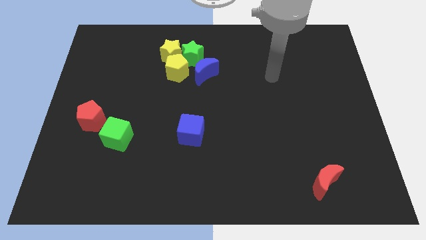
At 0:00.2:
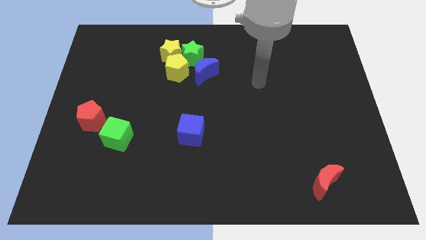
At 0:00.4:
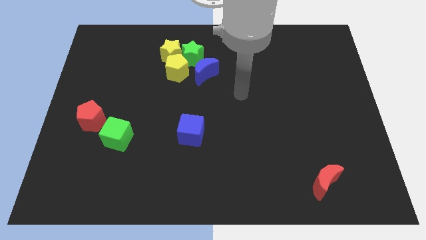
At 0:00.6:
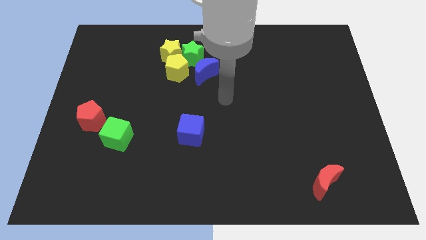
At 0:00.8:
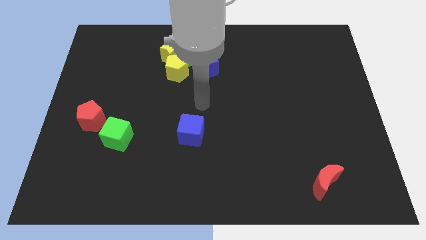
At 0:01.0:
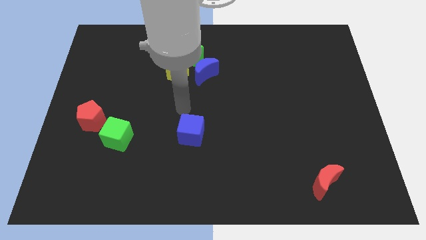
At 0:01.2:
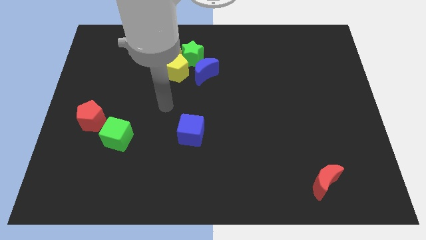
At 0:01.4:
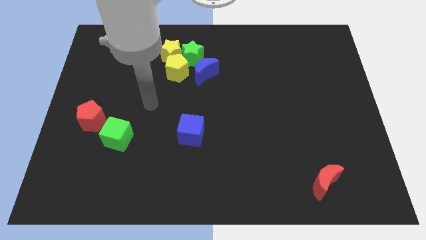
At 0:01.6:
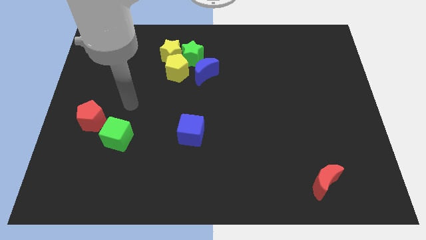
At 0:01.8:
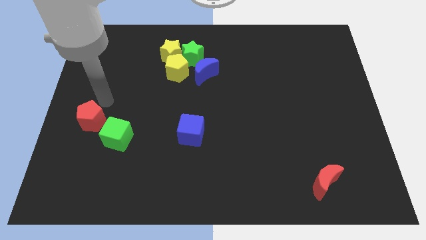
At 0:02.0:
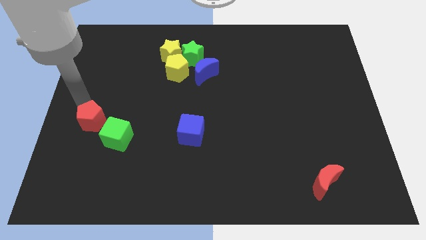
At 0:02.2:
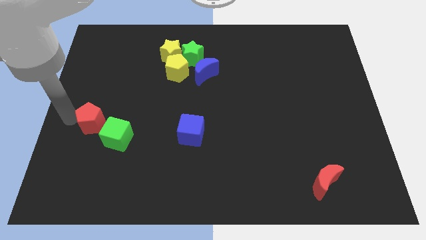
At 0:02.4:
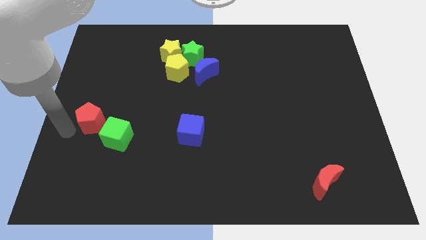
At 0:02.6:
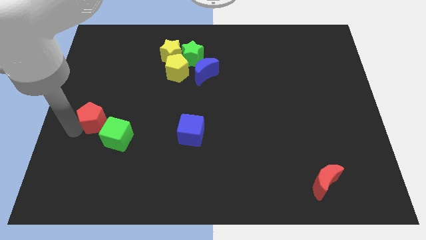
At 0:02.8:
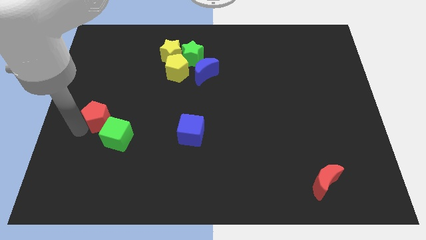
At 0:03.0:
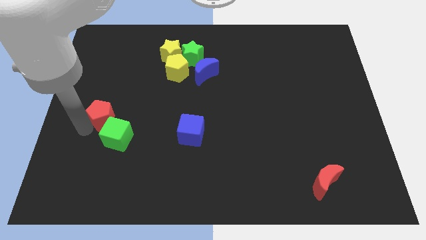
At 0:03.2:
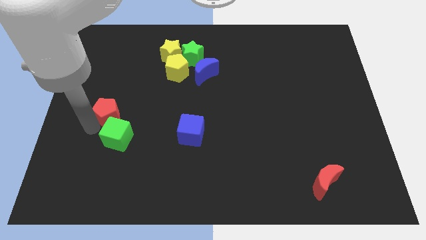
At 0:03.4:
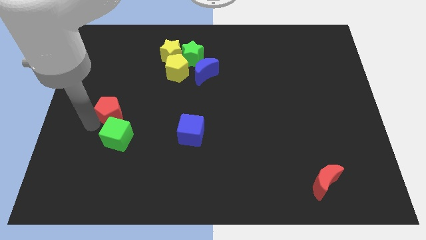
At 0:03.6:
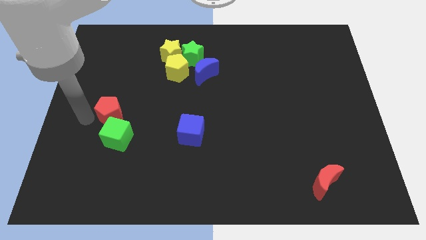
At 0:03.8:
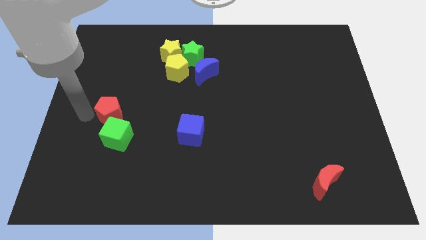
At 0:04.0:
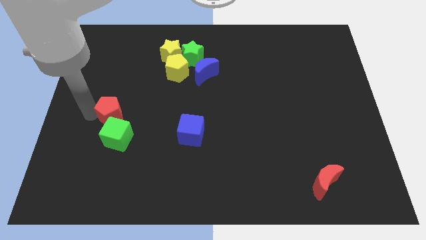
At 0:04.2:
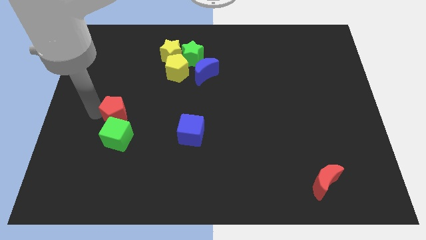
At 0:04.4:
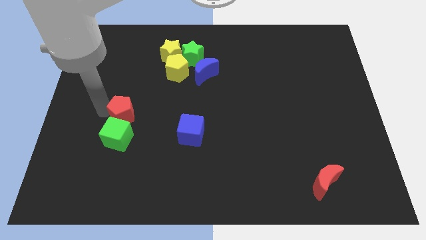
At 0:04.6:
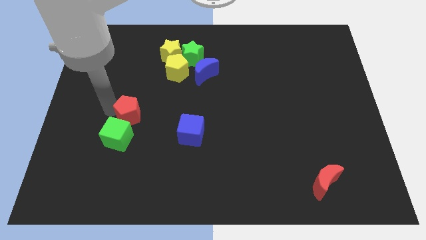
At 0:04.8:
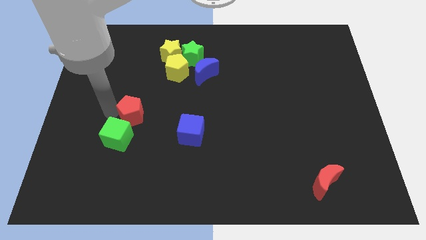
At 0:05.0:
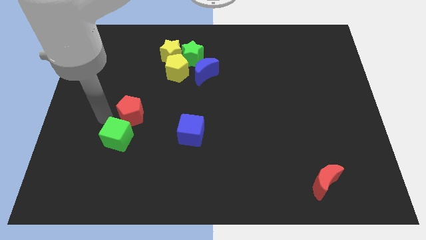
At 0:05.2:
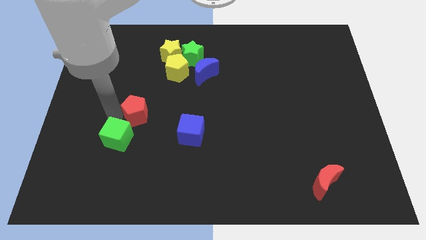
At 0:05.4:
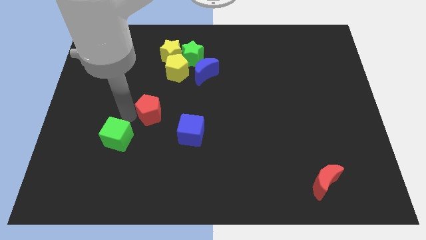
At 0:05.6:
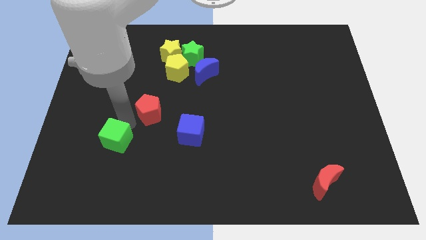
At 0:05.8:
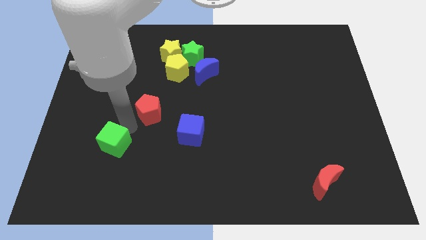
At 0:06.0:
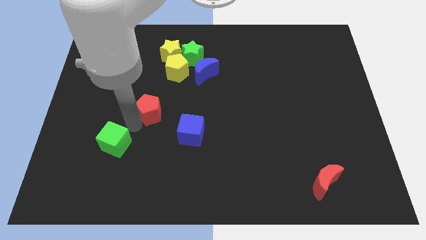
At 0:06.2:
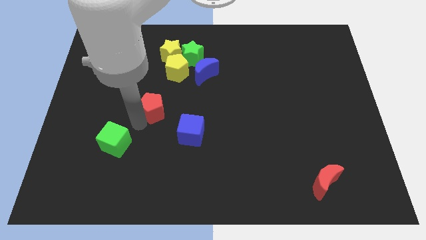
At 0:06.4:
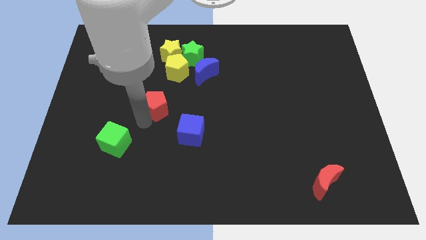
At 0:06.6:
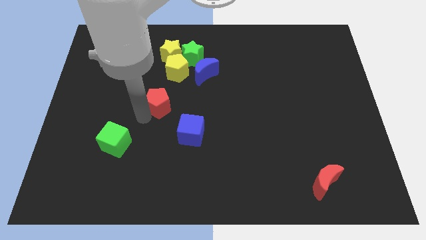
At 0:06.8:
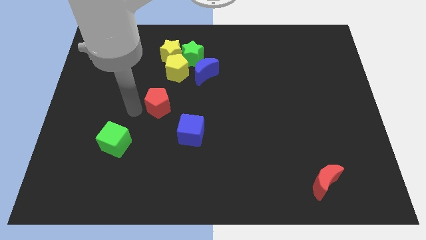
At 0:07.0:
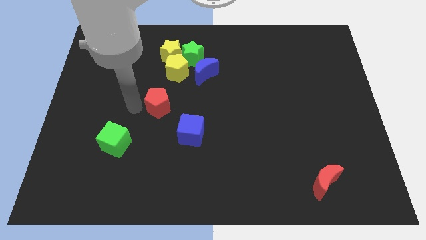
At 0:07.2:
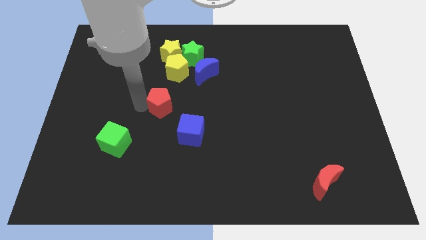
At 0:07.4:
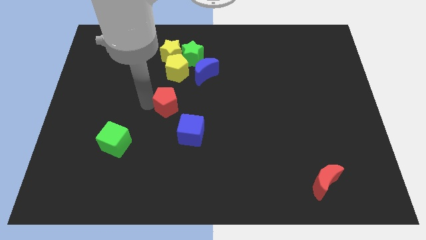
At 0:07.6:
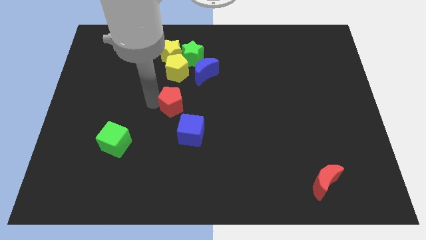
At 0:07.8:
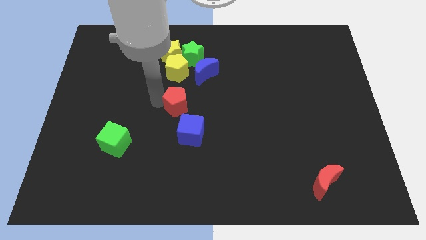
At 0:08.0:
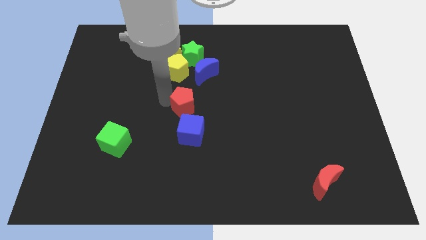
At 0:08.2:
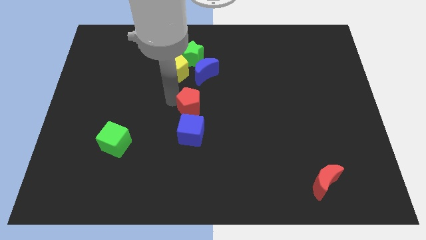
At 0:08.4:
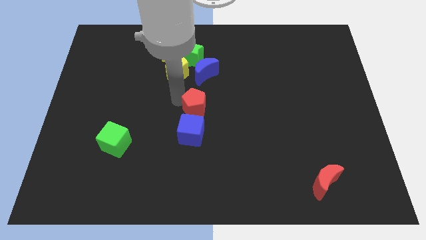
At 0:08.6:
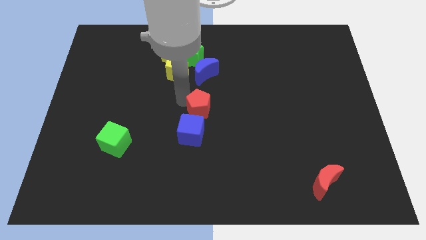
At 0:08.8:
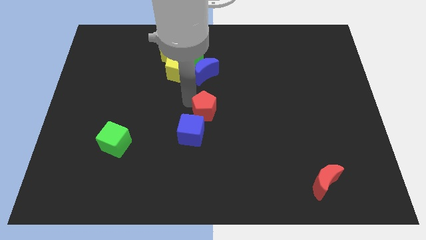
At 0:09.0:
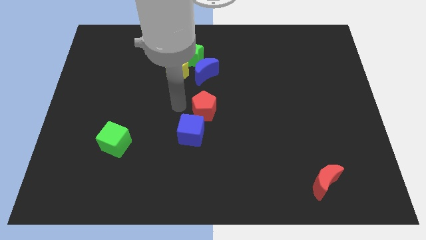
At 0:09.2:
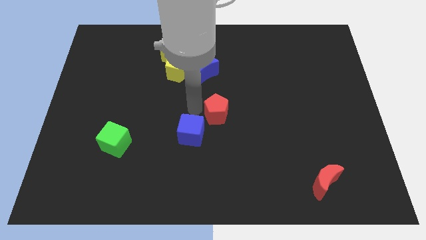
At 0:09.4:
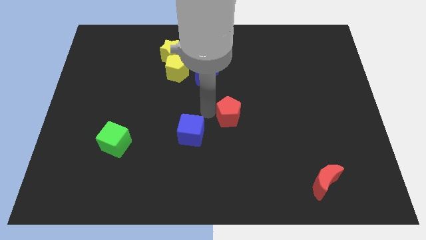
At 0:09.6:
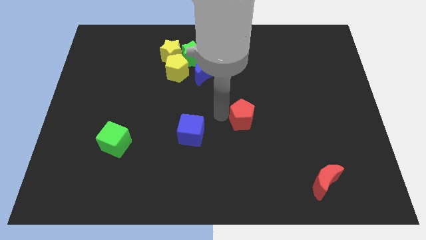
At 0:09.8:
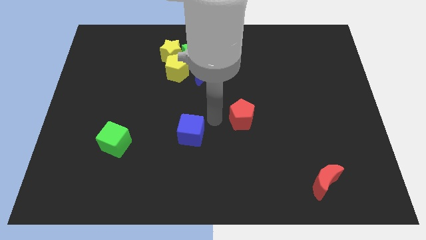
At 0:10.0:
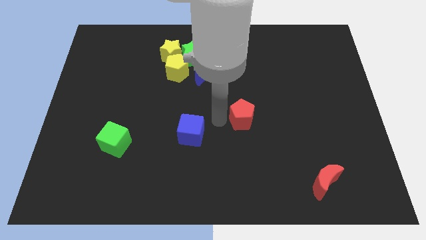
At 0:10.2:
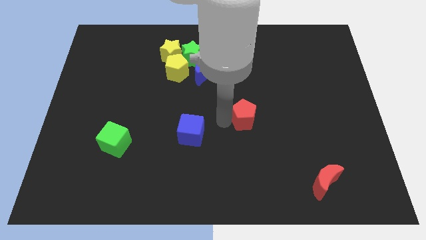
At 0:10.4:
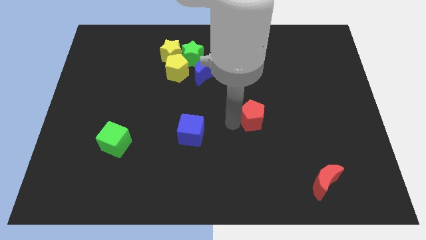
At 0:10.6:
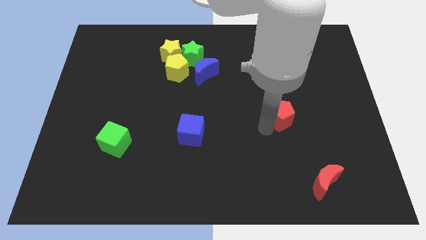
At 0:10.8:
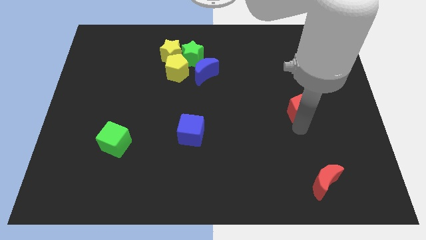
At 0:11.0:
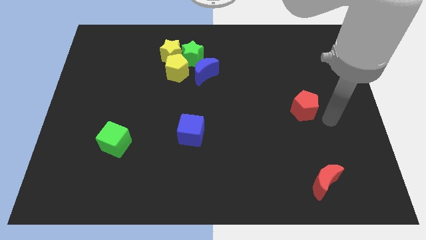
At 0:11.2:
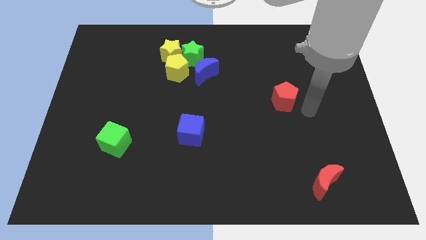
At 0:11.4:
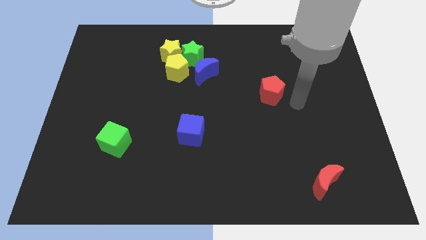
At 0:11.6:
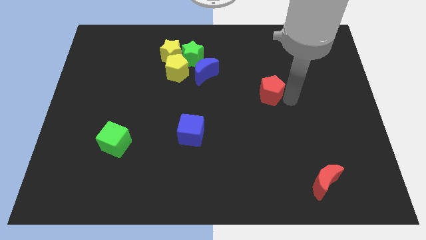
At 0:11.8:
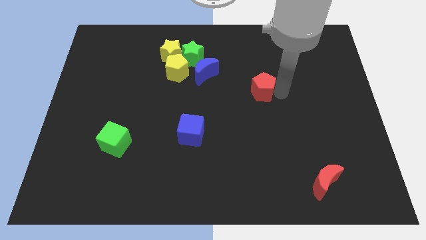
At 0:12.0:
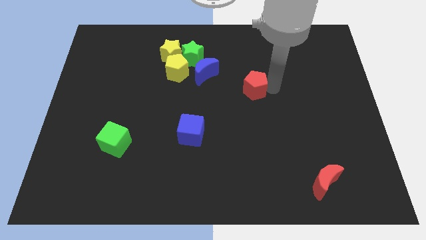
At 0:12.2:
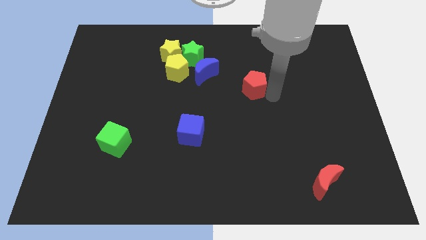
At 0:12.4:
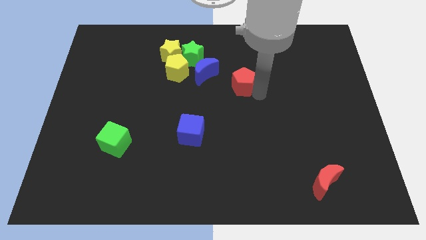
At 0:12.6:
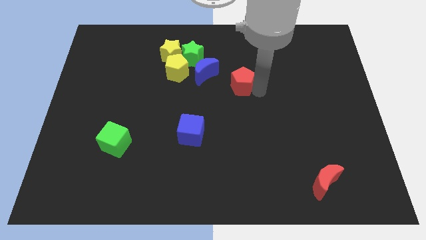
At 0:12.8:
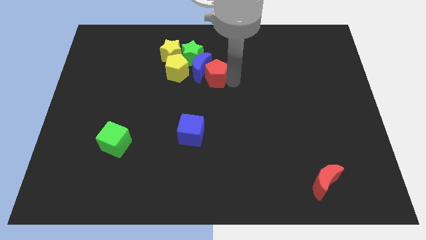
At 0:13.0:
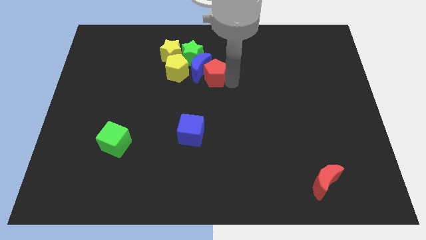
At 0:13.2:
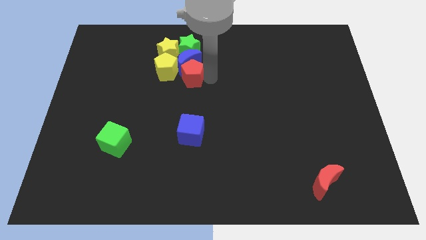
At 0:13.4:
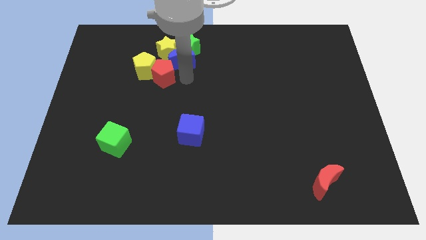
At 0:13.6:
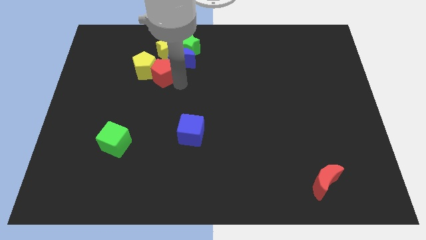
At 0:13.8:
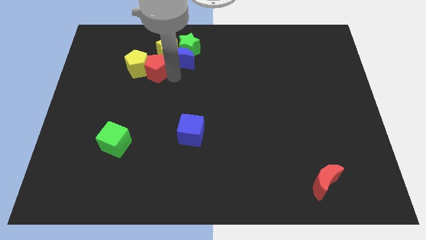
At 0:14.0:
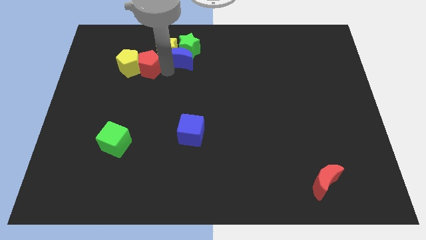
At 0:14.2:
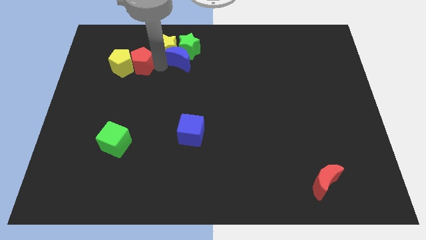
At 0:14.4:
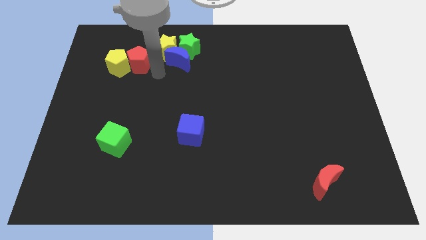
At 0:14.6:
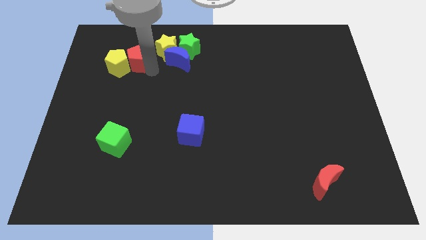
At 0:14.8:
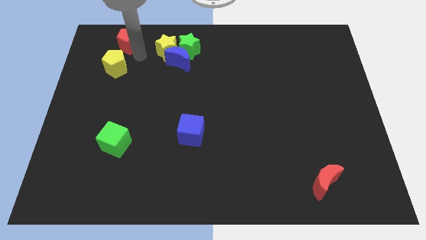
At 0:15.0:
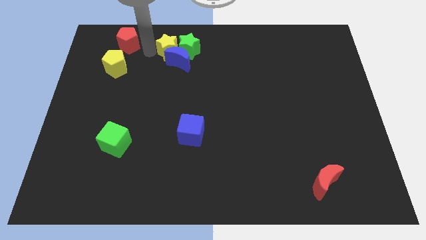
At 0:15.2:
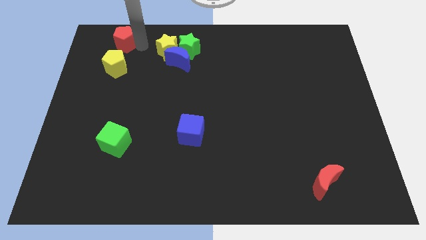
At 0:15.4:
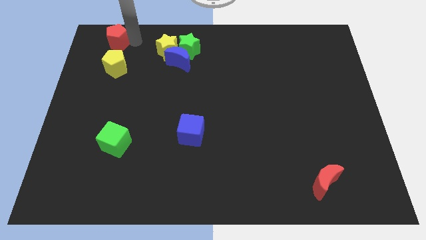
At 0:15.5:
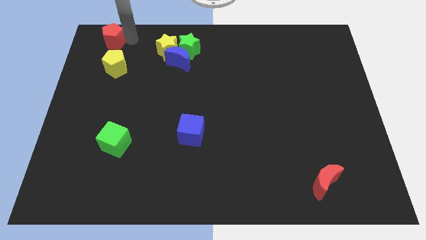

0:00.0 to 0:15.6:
slide the red pentagon to the upper left corner
